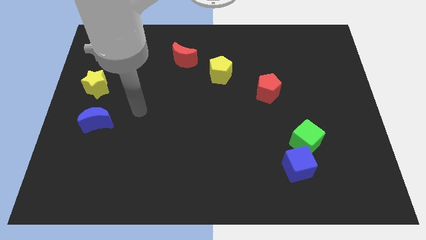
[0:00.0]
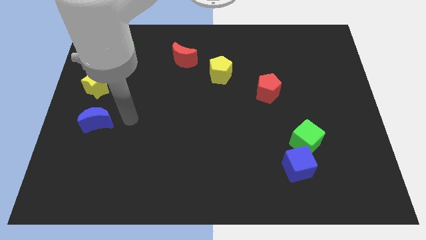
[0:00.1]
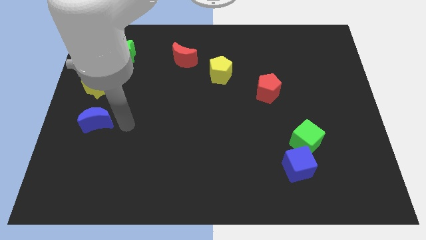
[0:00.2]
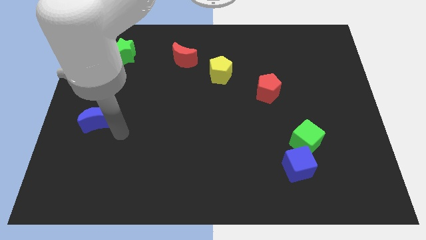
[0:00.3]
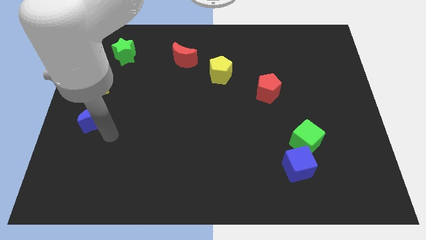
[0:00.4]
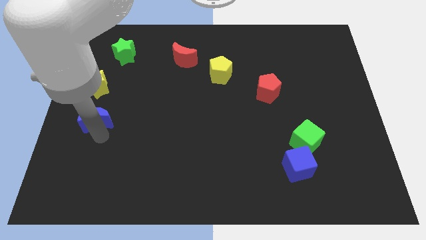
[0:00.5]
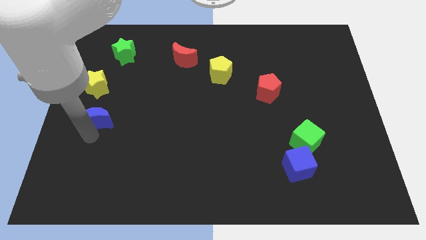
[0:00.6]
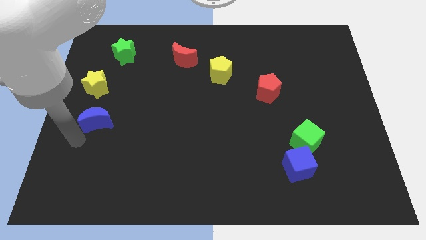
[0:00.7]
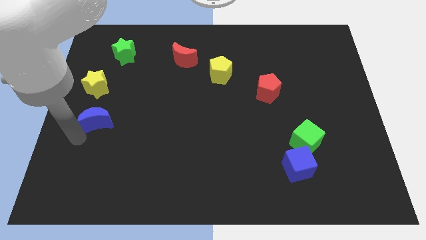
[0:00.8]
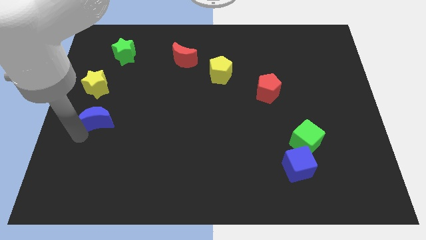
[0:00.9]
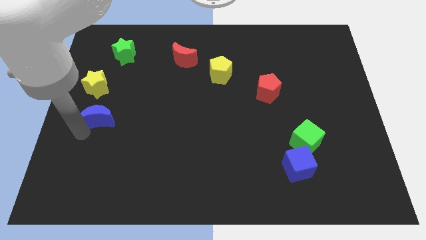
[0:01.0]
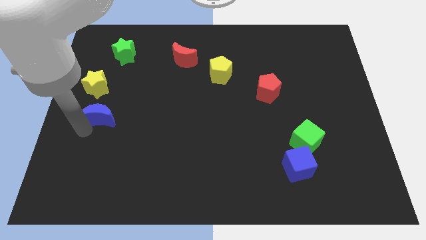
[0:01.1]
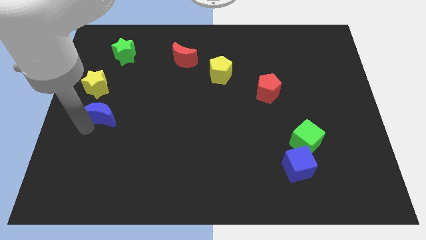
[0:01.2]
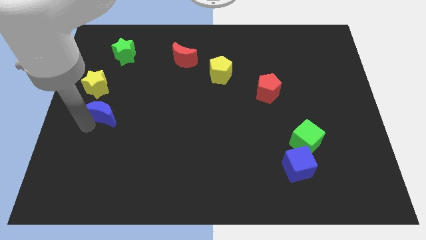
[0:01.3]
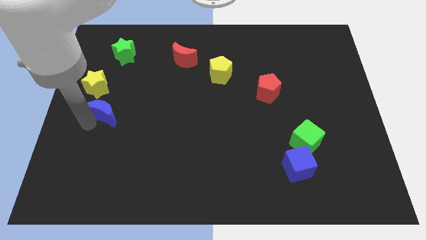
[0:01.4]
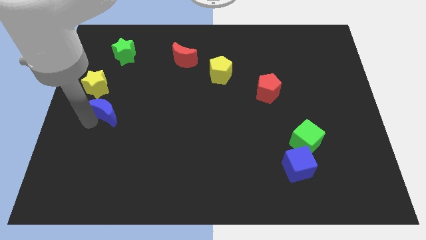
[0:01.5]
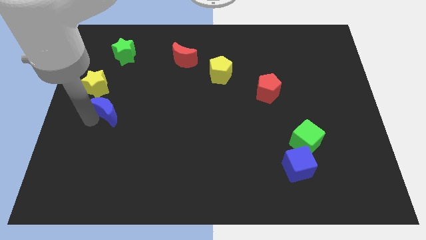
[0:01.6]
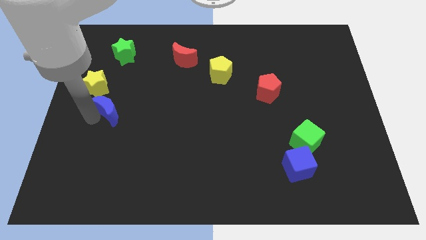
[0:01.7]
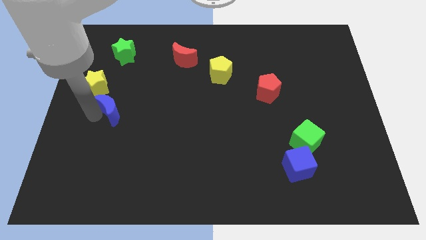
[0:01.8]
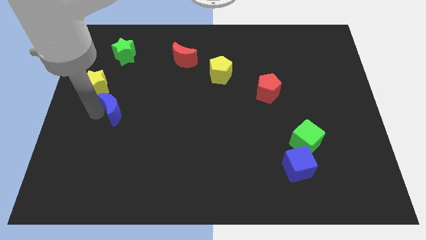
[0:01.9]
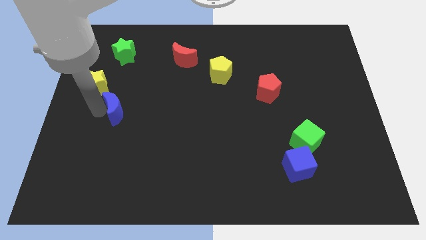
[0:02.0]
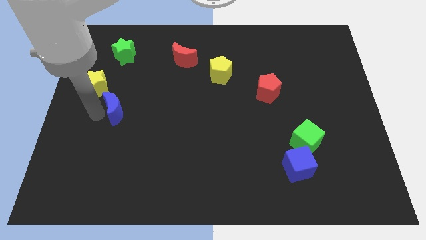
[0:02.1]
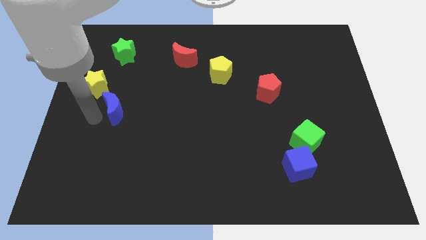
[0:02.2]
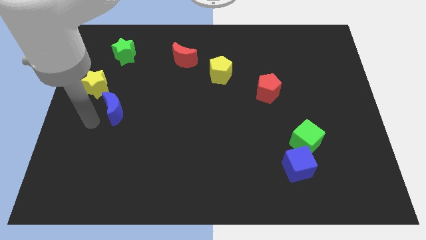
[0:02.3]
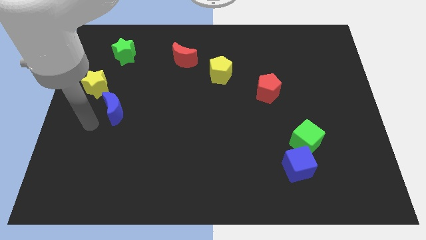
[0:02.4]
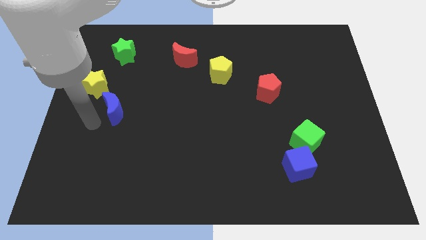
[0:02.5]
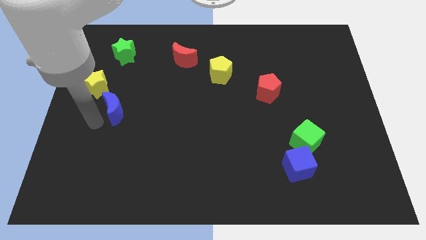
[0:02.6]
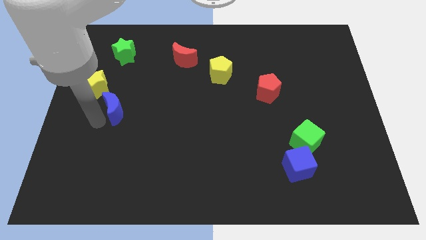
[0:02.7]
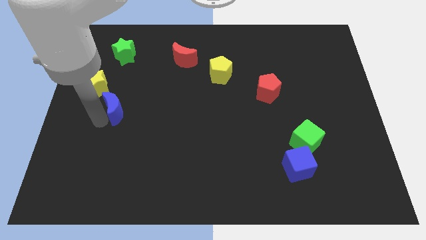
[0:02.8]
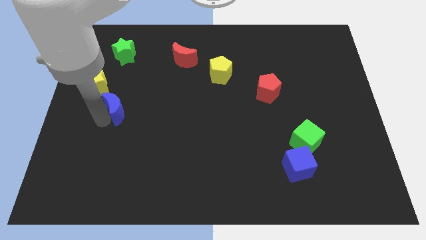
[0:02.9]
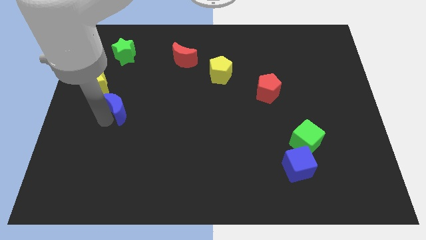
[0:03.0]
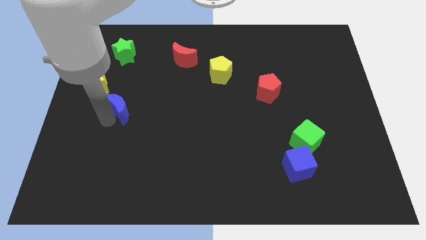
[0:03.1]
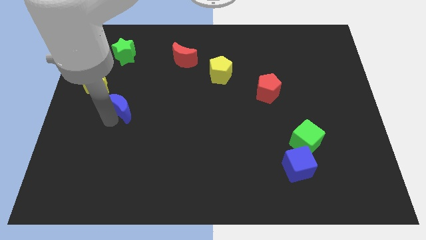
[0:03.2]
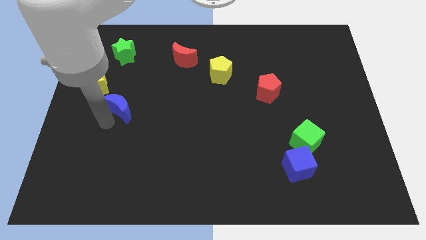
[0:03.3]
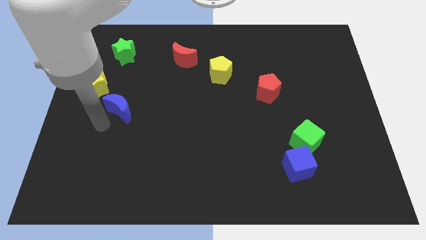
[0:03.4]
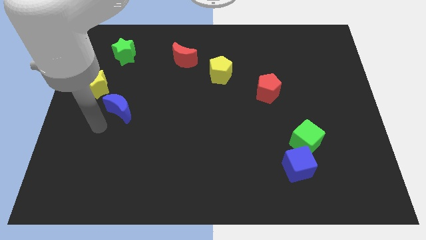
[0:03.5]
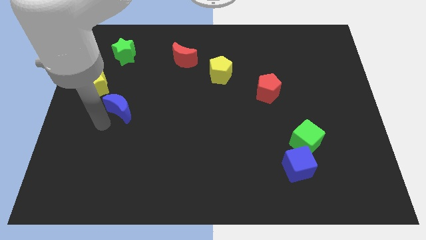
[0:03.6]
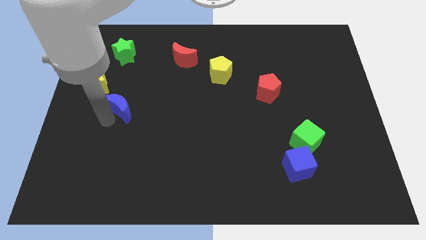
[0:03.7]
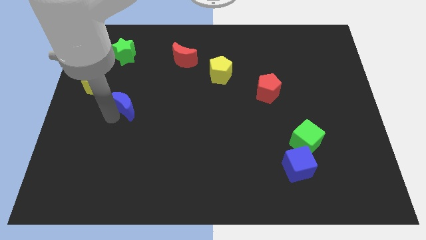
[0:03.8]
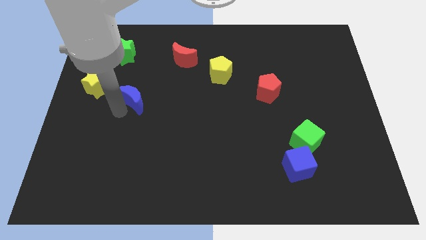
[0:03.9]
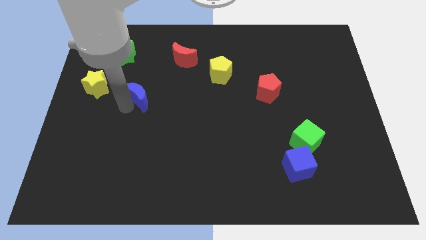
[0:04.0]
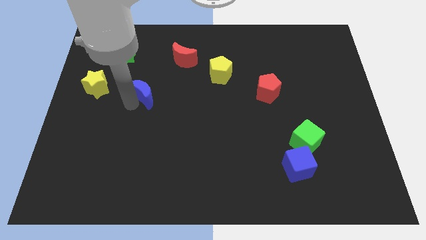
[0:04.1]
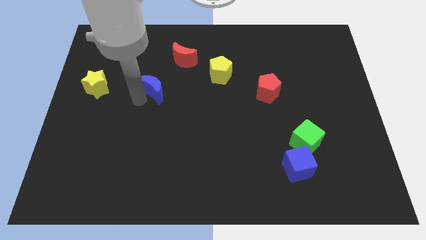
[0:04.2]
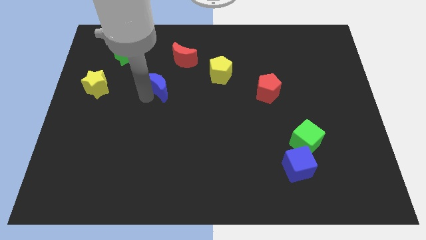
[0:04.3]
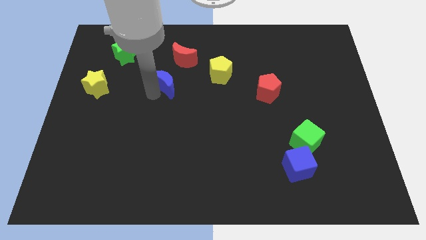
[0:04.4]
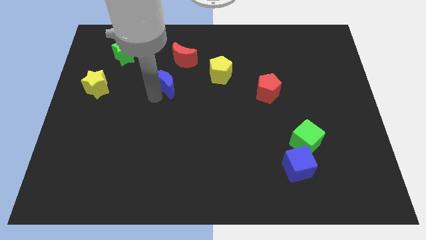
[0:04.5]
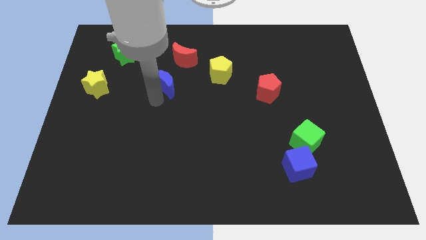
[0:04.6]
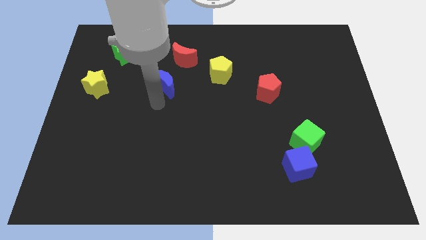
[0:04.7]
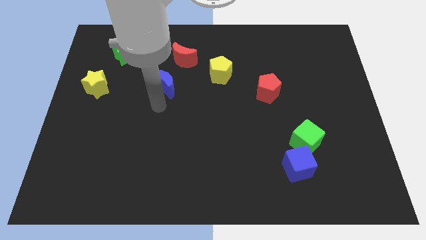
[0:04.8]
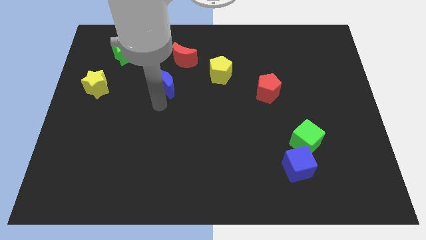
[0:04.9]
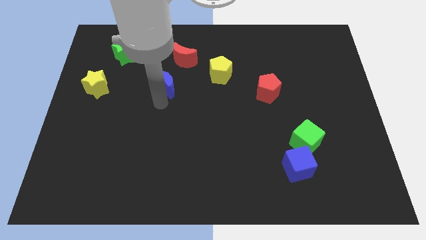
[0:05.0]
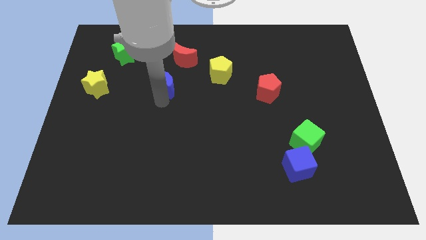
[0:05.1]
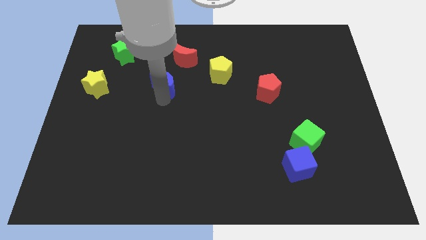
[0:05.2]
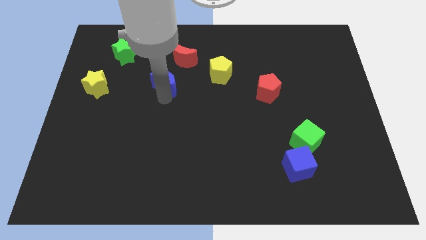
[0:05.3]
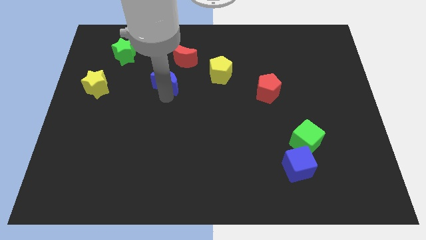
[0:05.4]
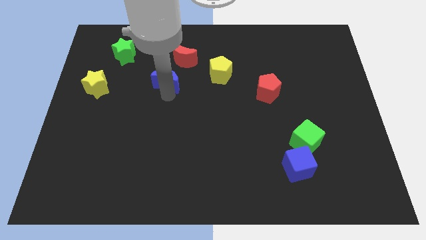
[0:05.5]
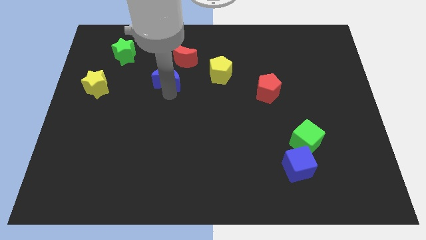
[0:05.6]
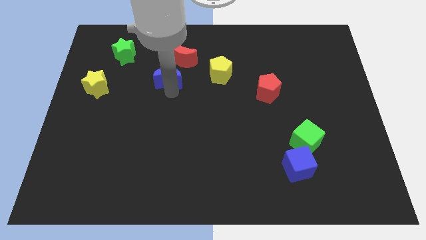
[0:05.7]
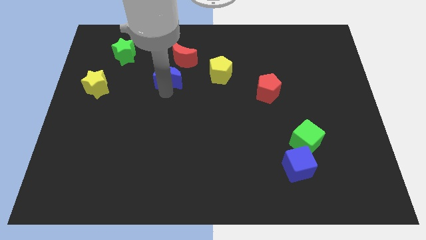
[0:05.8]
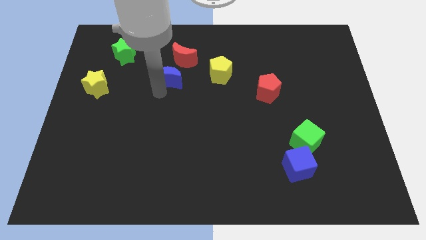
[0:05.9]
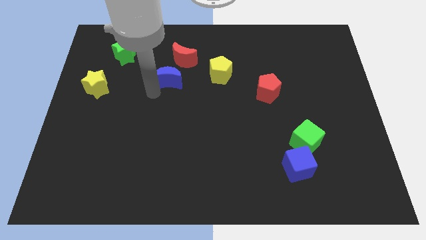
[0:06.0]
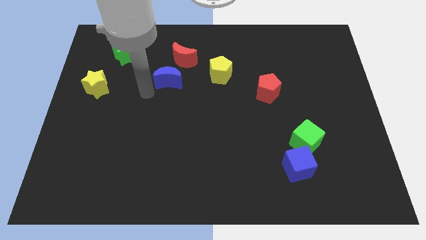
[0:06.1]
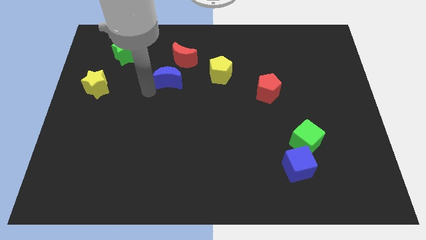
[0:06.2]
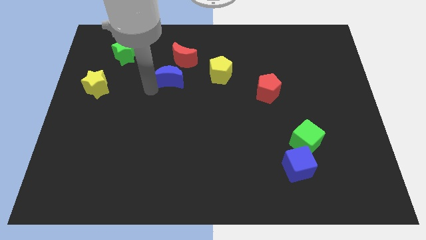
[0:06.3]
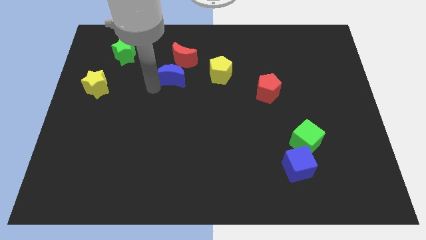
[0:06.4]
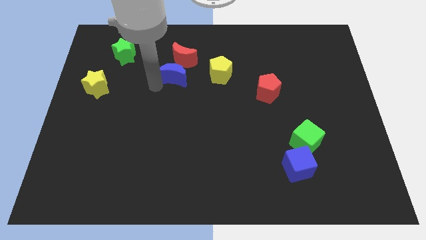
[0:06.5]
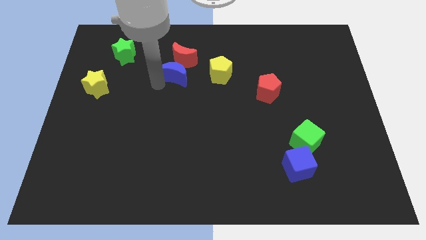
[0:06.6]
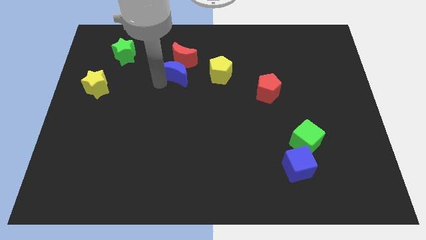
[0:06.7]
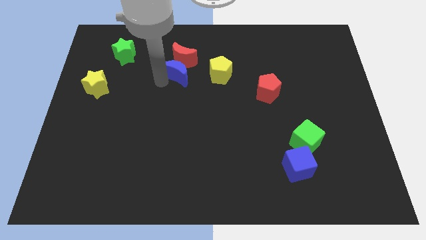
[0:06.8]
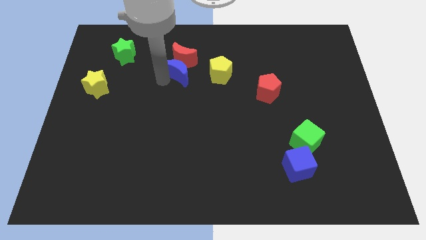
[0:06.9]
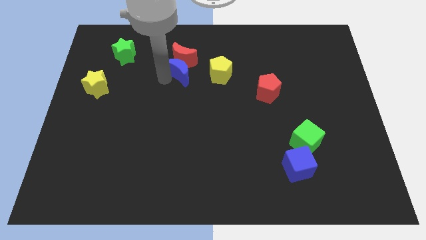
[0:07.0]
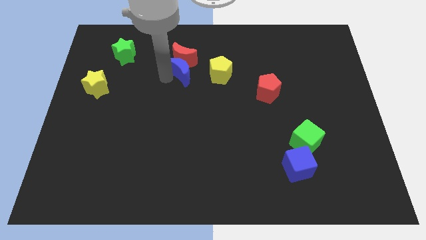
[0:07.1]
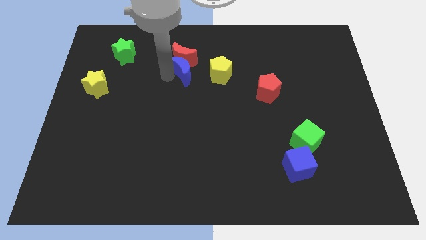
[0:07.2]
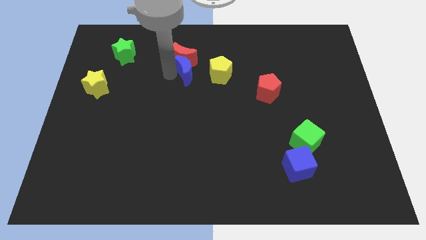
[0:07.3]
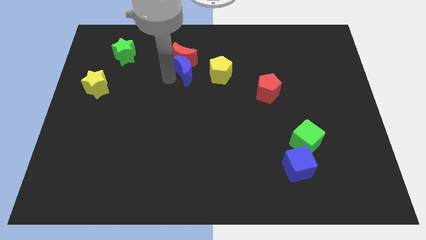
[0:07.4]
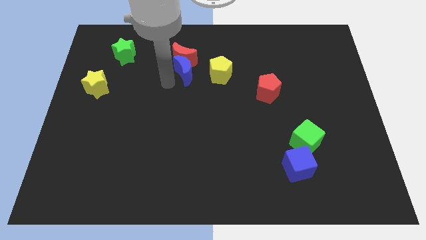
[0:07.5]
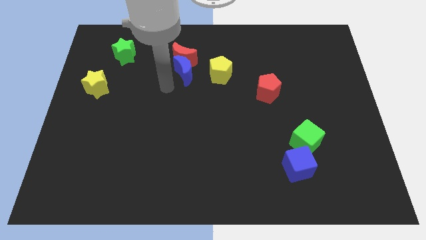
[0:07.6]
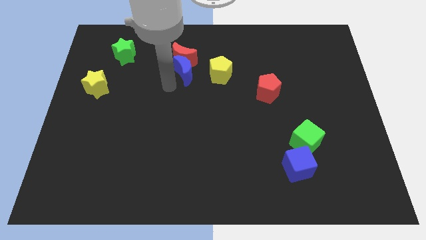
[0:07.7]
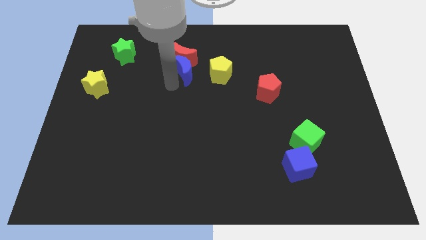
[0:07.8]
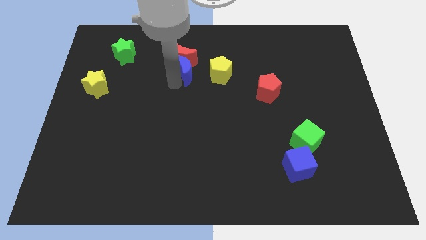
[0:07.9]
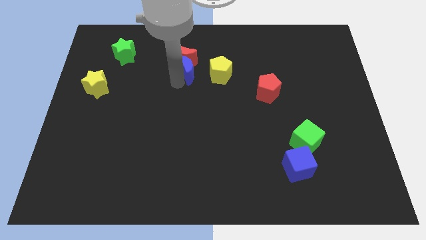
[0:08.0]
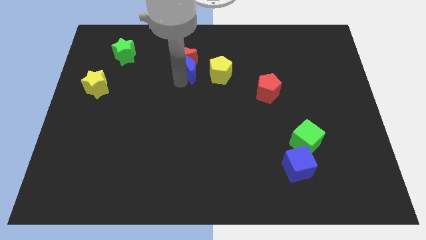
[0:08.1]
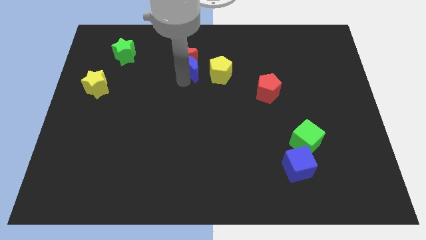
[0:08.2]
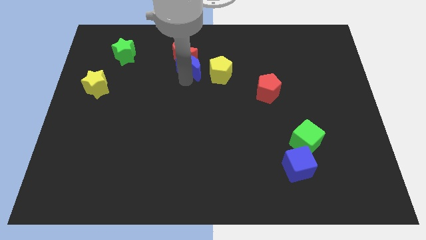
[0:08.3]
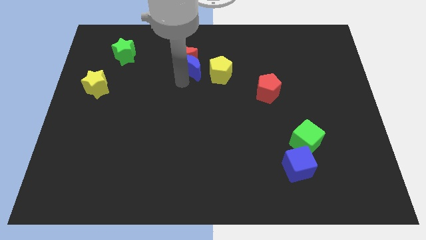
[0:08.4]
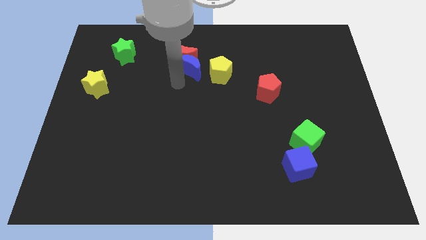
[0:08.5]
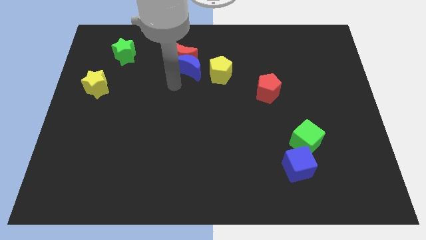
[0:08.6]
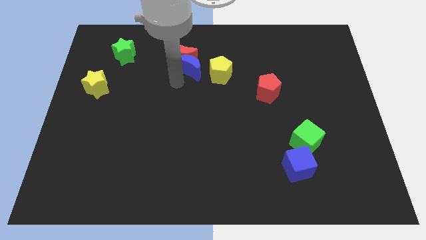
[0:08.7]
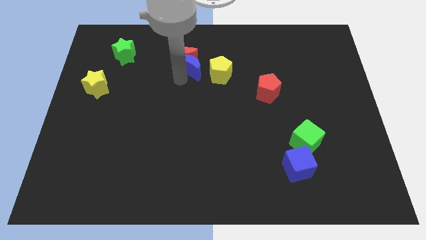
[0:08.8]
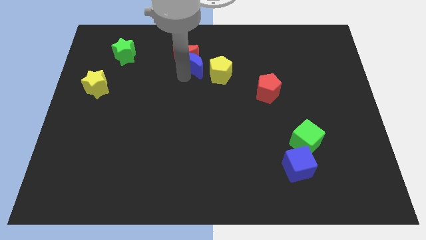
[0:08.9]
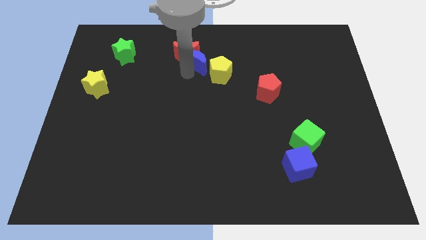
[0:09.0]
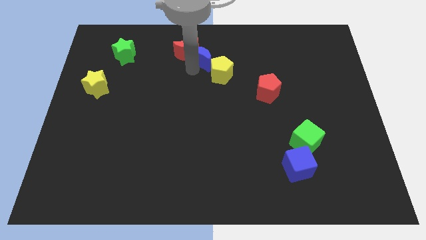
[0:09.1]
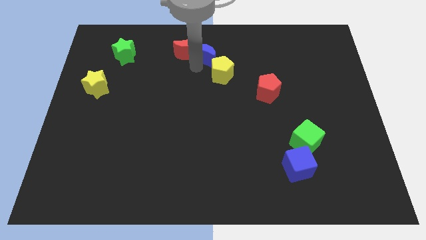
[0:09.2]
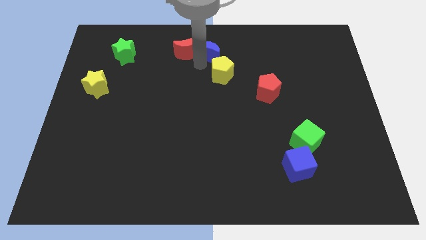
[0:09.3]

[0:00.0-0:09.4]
put the blue moon to the top side
